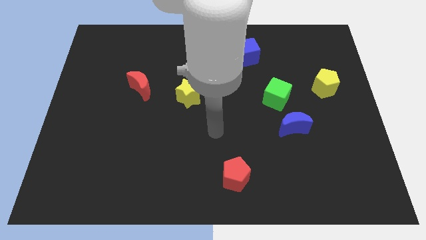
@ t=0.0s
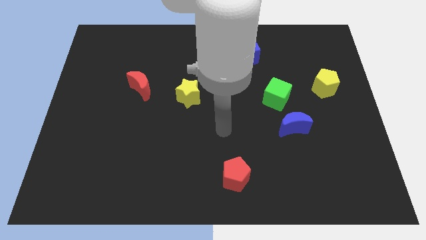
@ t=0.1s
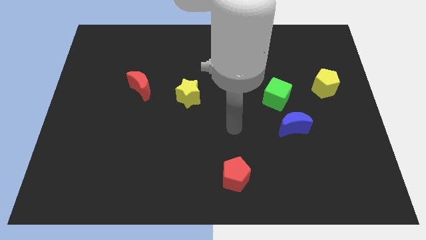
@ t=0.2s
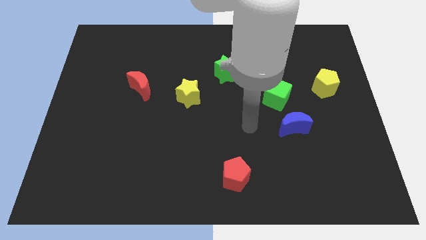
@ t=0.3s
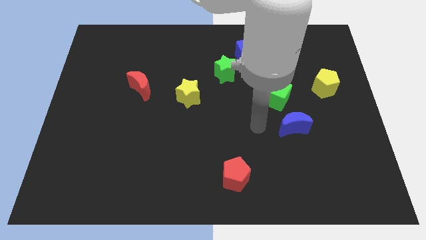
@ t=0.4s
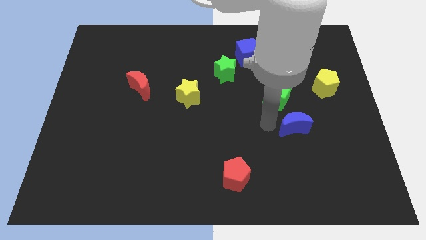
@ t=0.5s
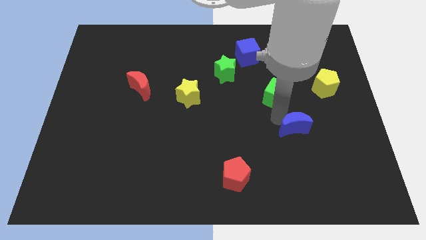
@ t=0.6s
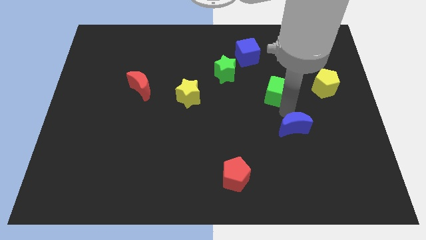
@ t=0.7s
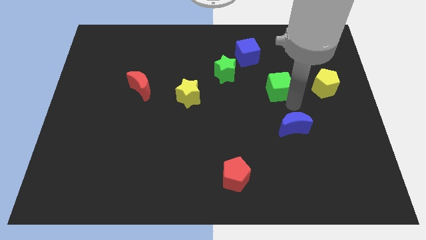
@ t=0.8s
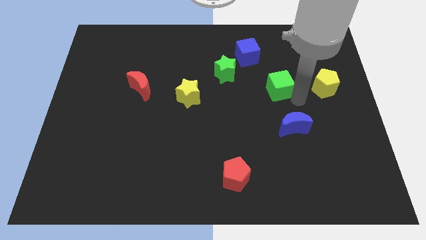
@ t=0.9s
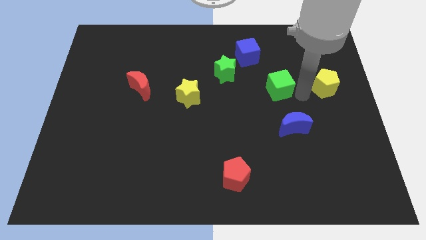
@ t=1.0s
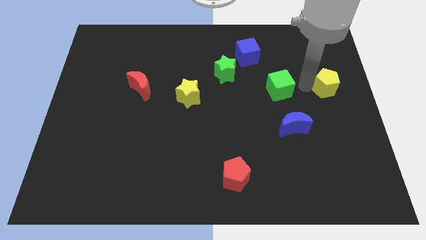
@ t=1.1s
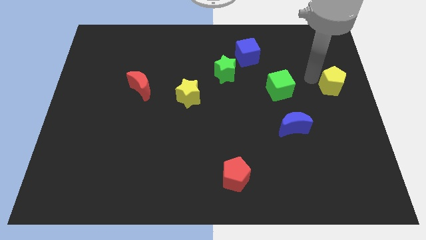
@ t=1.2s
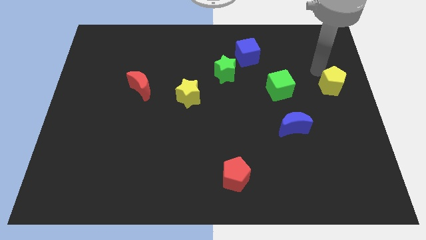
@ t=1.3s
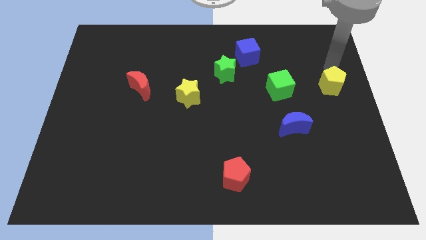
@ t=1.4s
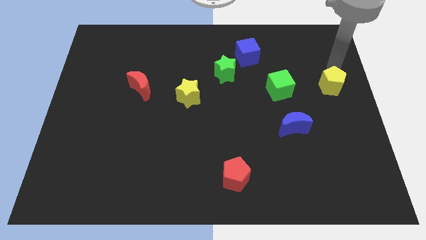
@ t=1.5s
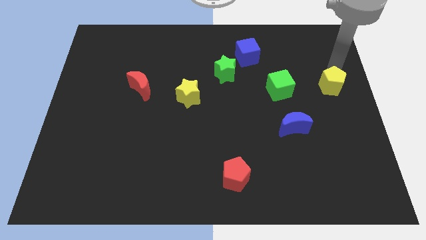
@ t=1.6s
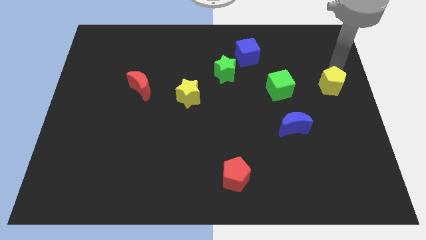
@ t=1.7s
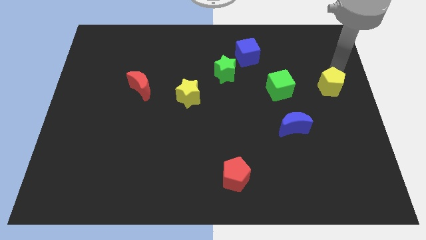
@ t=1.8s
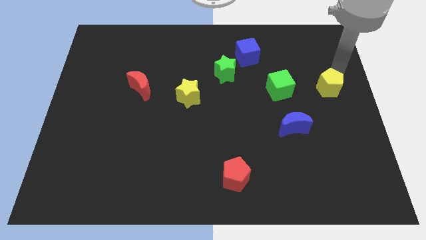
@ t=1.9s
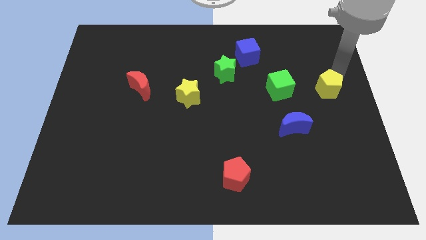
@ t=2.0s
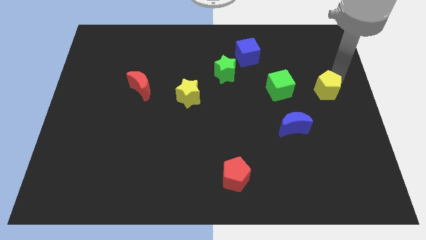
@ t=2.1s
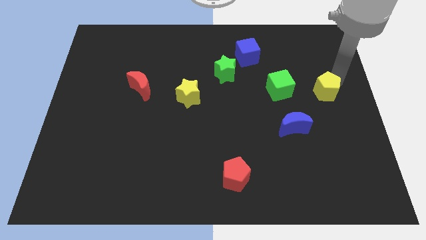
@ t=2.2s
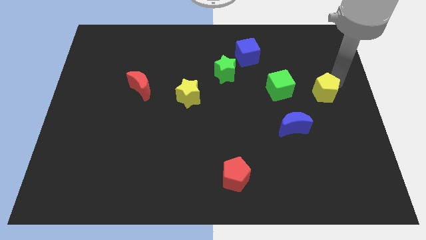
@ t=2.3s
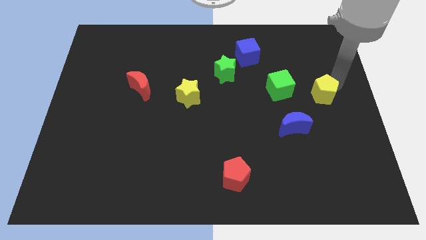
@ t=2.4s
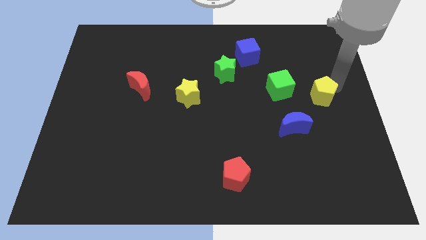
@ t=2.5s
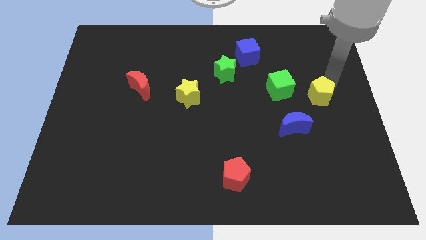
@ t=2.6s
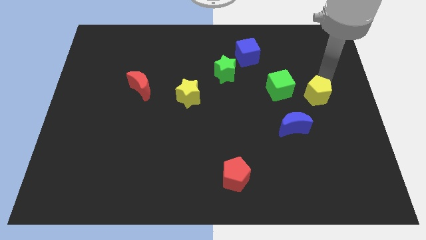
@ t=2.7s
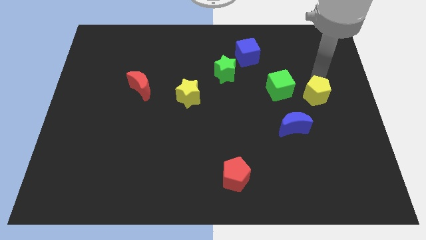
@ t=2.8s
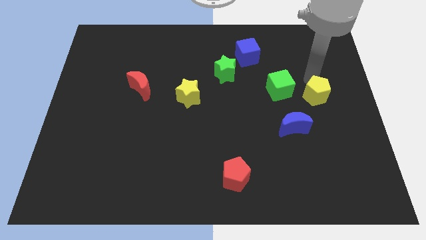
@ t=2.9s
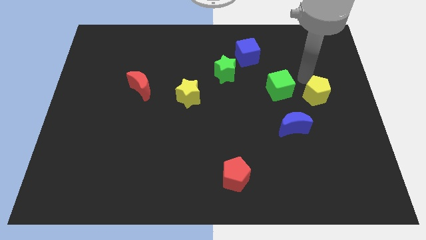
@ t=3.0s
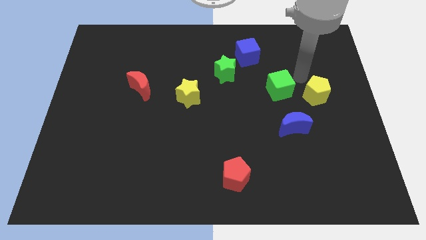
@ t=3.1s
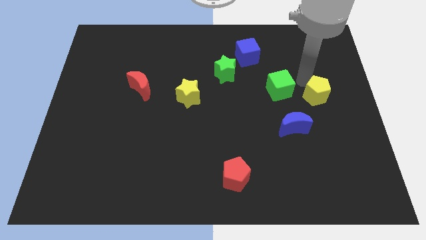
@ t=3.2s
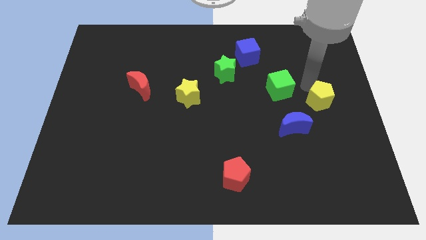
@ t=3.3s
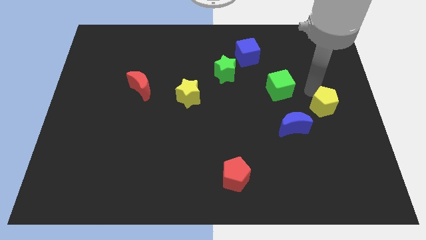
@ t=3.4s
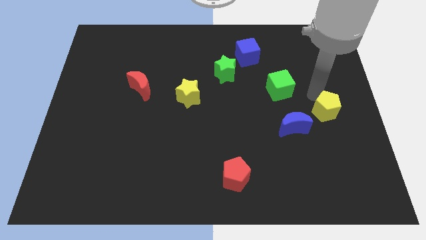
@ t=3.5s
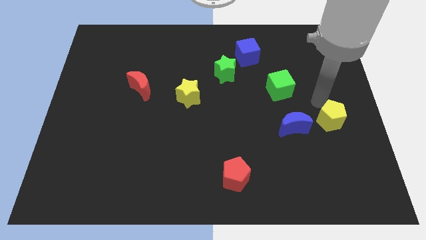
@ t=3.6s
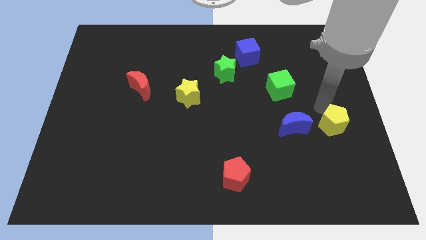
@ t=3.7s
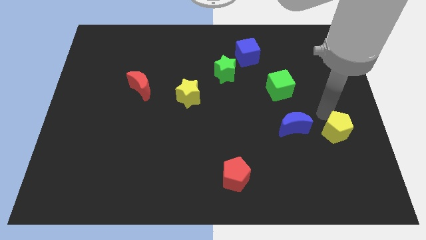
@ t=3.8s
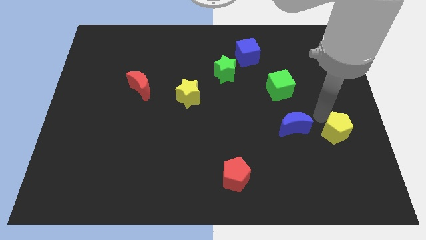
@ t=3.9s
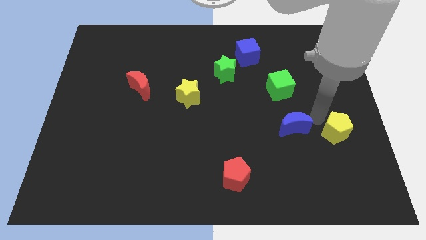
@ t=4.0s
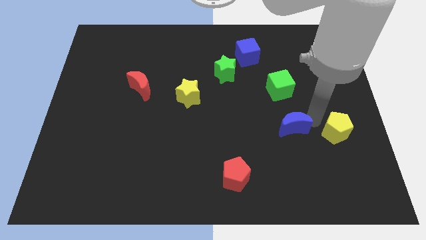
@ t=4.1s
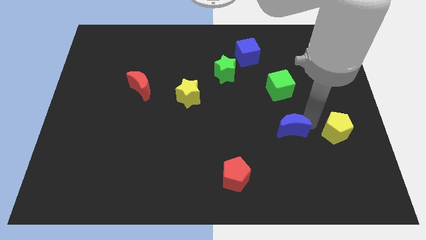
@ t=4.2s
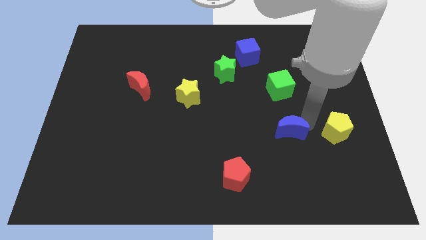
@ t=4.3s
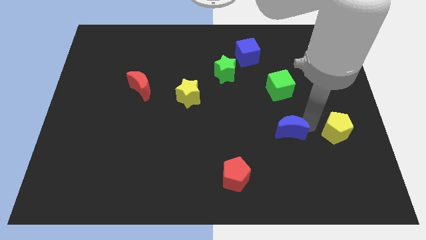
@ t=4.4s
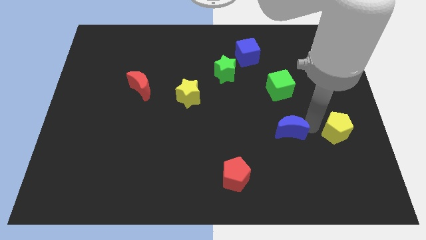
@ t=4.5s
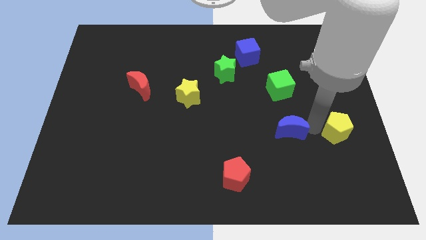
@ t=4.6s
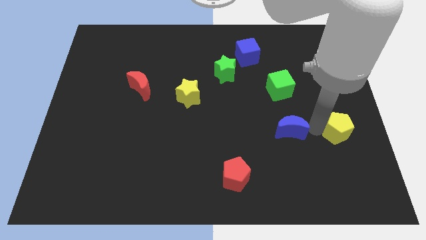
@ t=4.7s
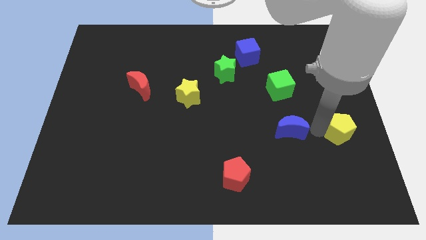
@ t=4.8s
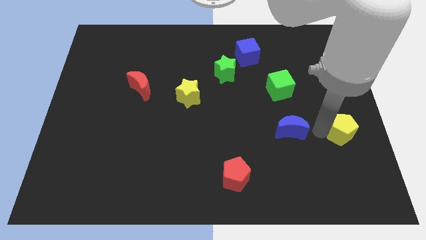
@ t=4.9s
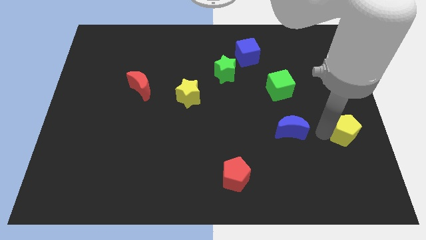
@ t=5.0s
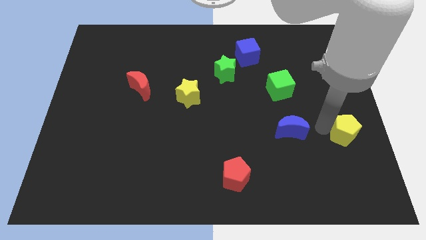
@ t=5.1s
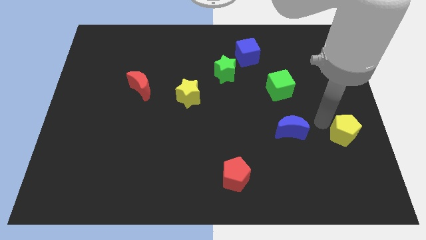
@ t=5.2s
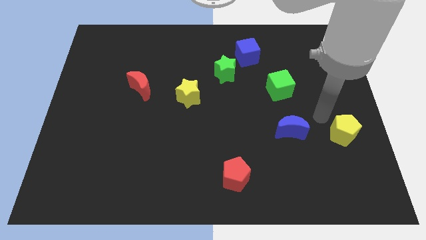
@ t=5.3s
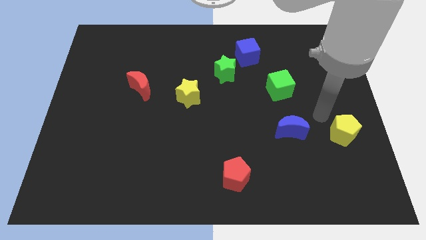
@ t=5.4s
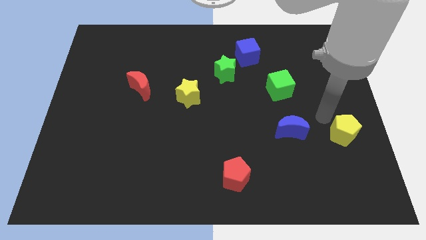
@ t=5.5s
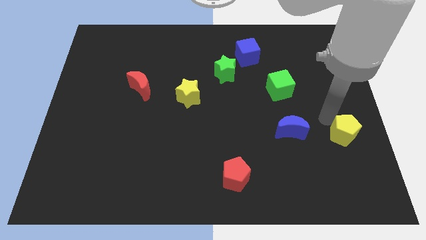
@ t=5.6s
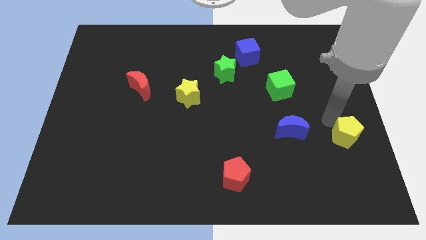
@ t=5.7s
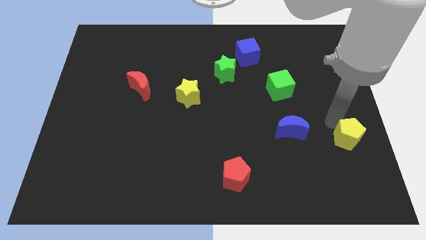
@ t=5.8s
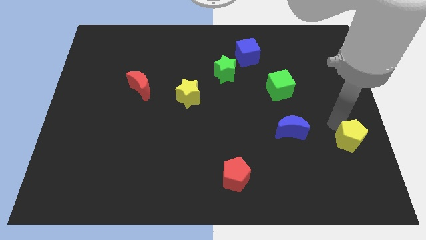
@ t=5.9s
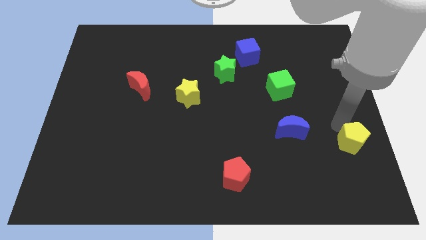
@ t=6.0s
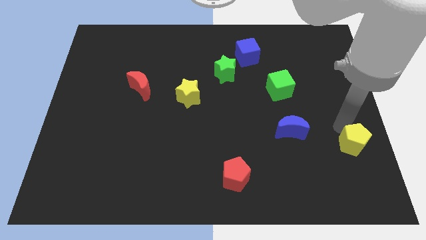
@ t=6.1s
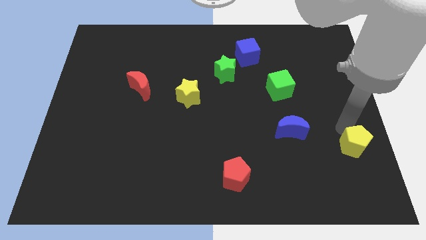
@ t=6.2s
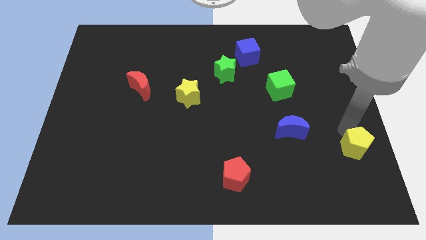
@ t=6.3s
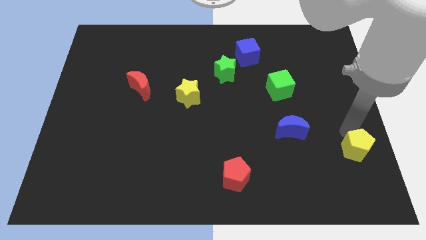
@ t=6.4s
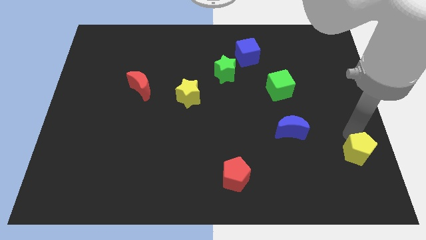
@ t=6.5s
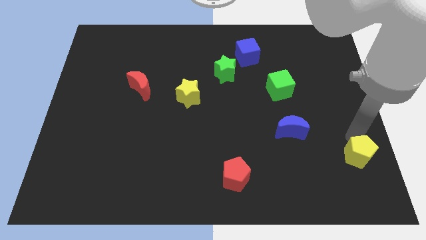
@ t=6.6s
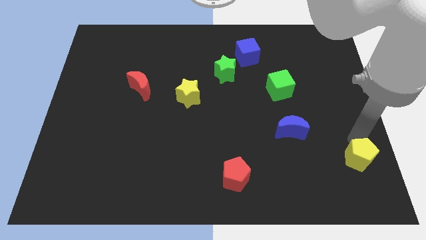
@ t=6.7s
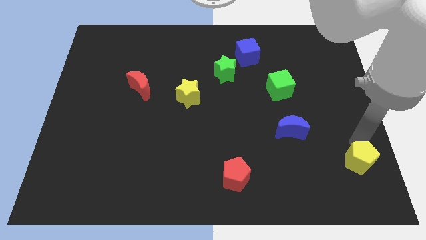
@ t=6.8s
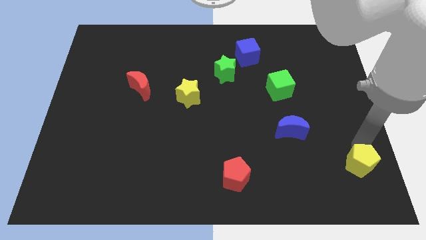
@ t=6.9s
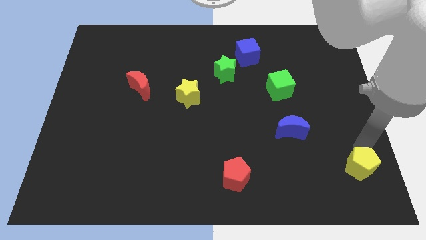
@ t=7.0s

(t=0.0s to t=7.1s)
slide the yellow pentagon to the lower right corner

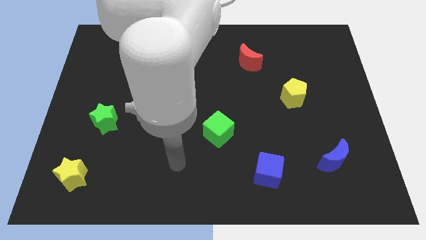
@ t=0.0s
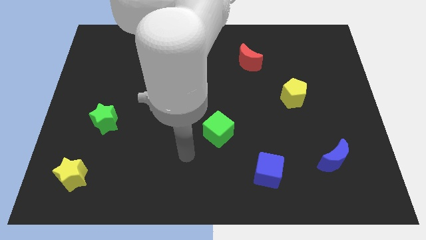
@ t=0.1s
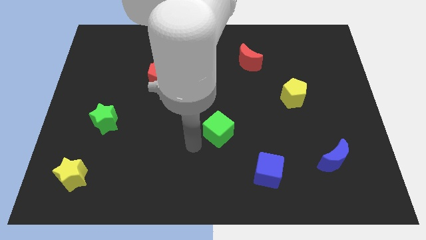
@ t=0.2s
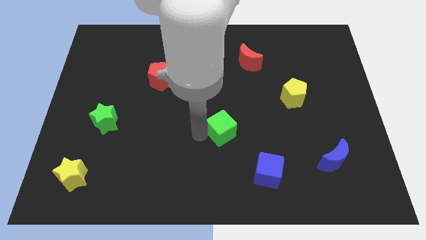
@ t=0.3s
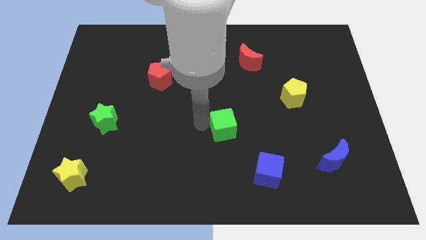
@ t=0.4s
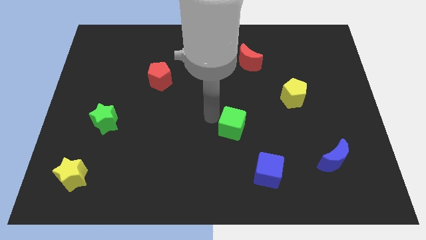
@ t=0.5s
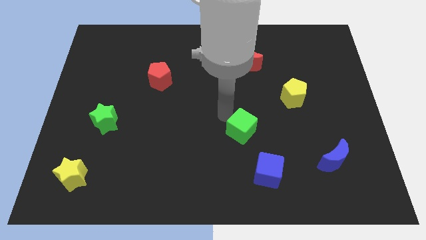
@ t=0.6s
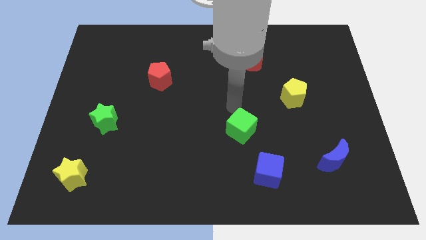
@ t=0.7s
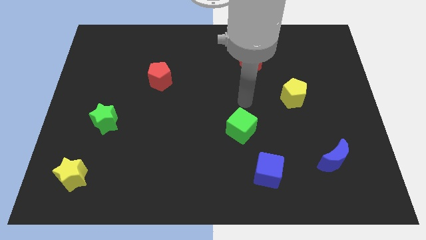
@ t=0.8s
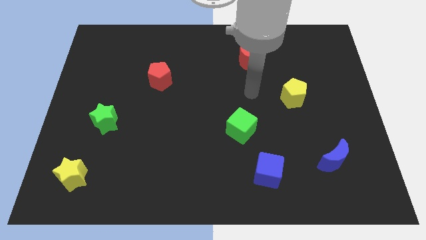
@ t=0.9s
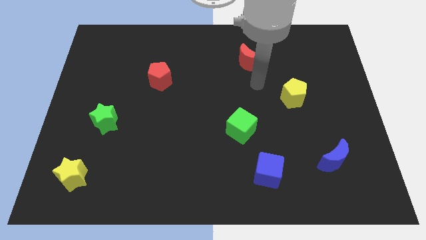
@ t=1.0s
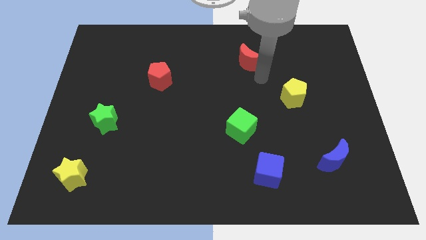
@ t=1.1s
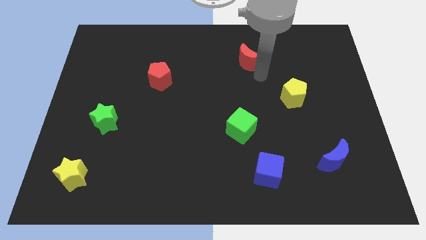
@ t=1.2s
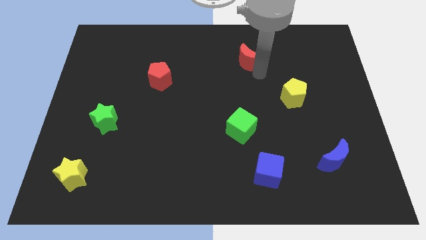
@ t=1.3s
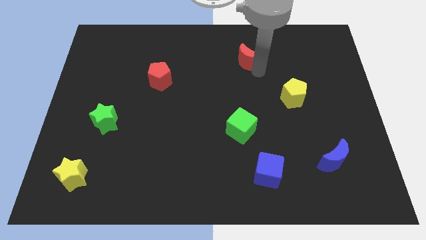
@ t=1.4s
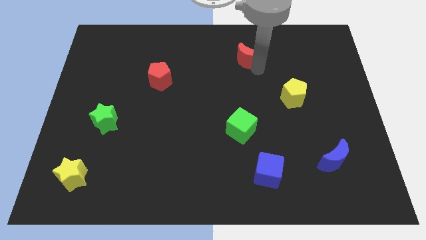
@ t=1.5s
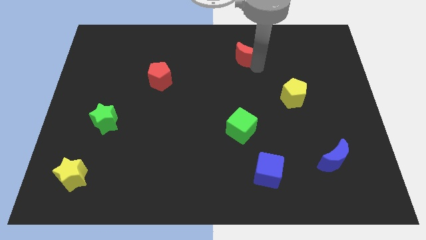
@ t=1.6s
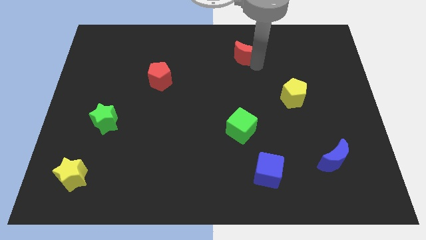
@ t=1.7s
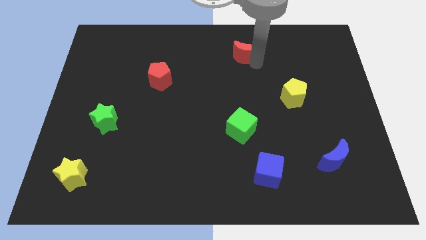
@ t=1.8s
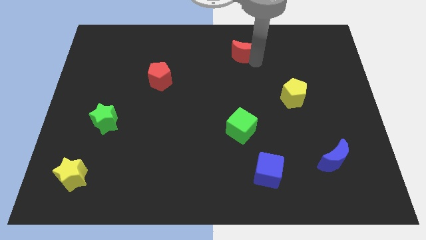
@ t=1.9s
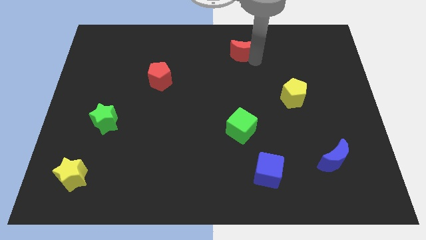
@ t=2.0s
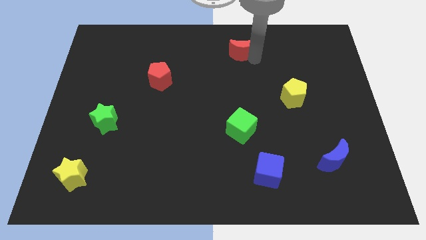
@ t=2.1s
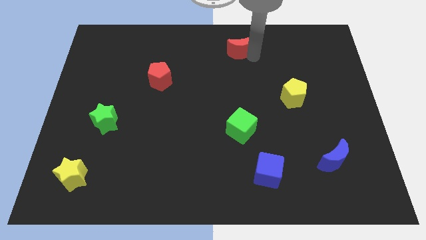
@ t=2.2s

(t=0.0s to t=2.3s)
slide the red moon to the top side
